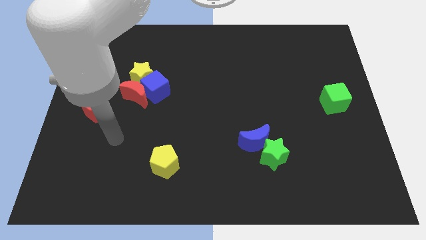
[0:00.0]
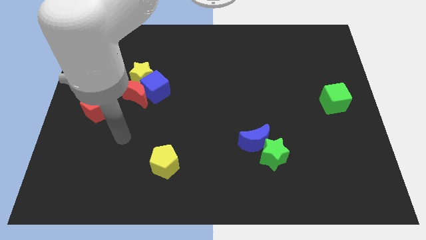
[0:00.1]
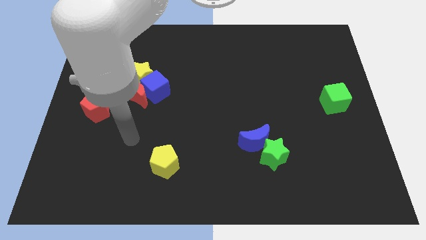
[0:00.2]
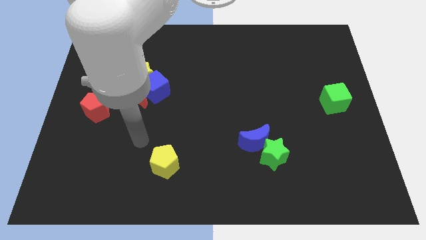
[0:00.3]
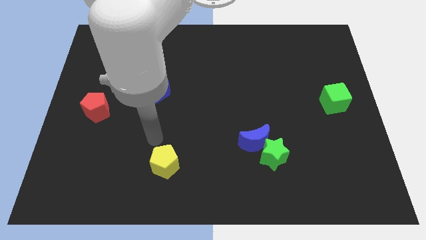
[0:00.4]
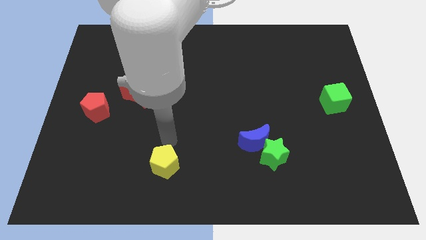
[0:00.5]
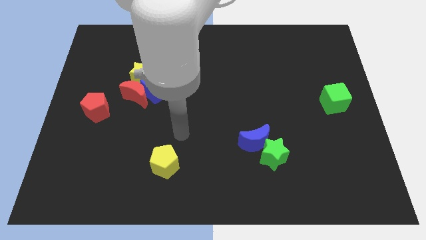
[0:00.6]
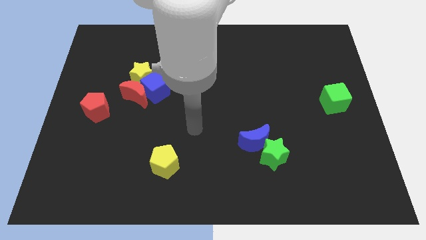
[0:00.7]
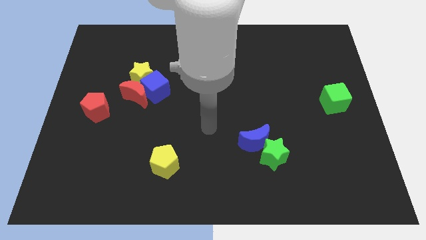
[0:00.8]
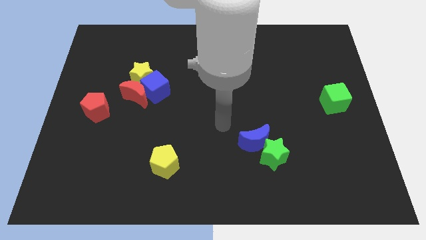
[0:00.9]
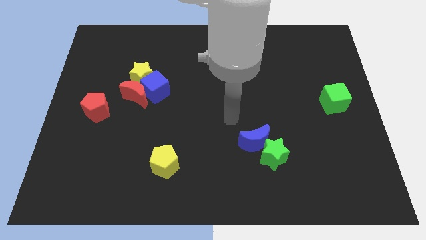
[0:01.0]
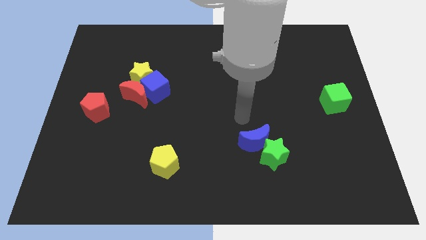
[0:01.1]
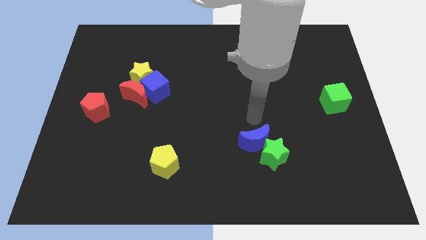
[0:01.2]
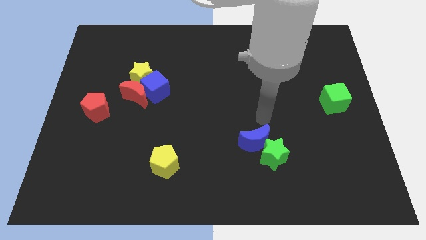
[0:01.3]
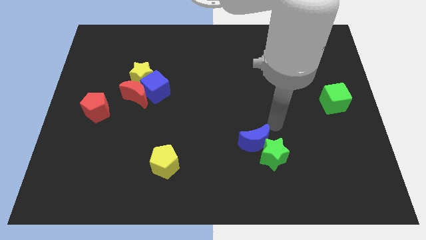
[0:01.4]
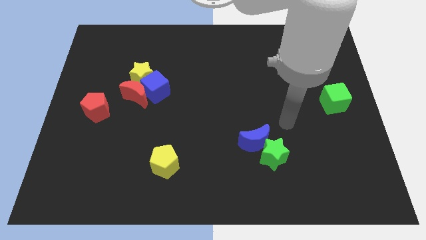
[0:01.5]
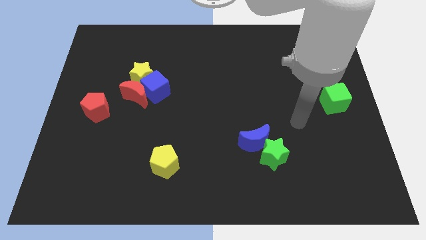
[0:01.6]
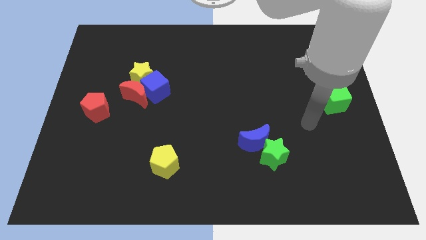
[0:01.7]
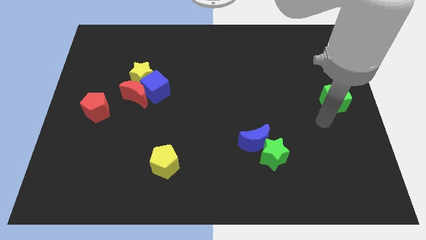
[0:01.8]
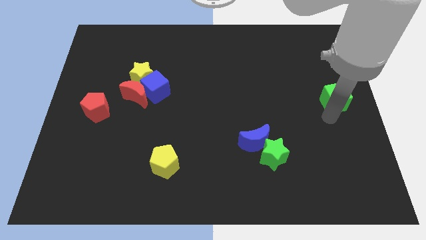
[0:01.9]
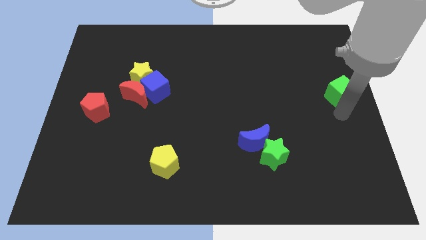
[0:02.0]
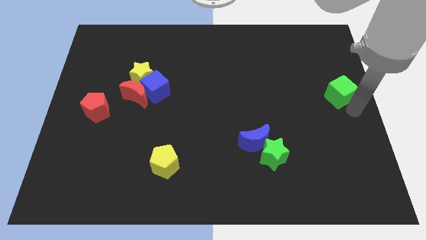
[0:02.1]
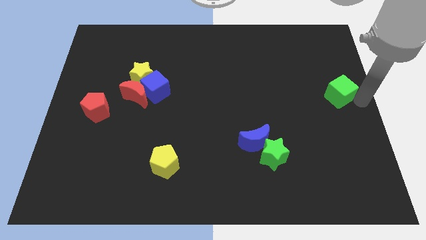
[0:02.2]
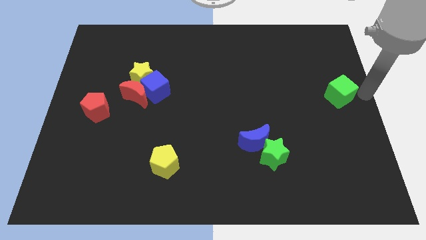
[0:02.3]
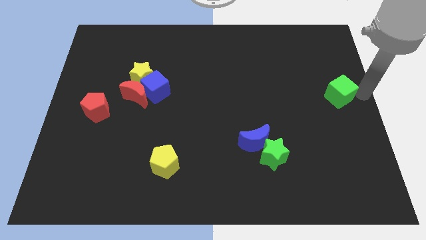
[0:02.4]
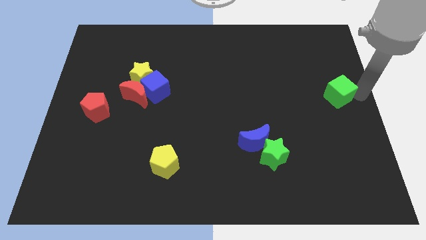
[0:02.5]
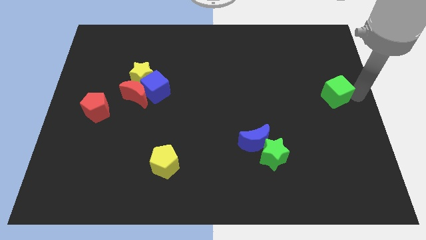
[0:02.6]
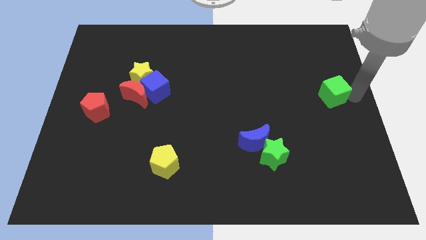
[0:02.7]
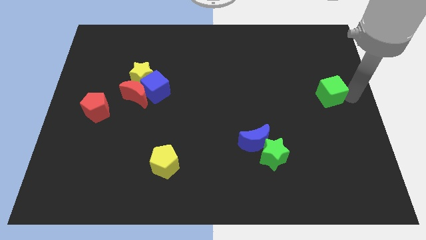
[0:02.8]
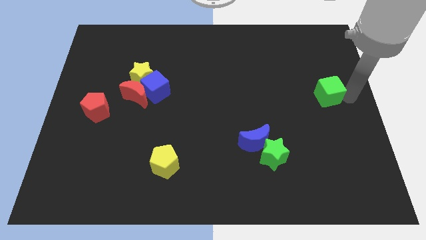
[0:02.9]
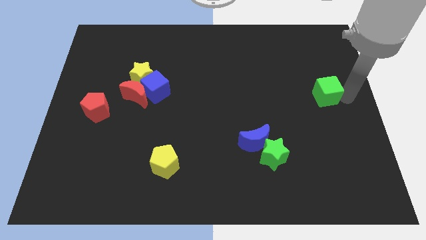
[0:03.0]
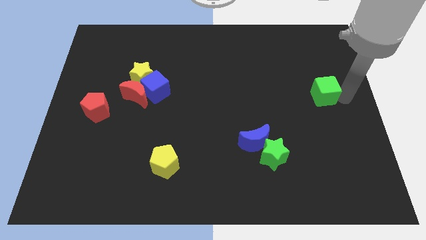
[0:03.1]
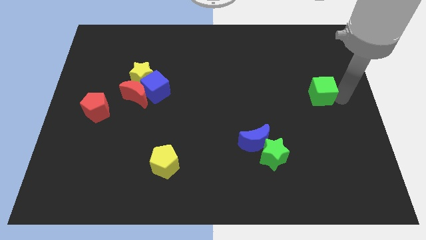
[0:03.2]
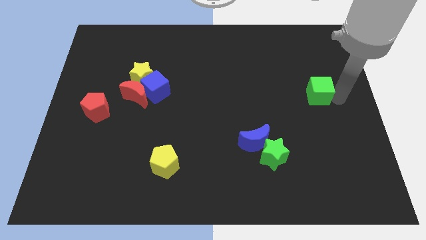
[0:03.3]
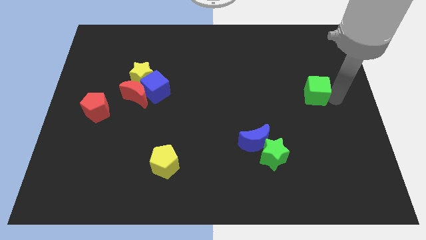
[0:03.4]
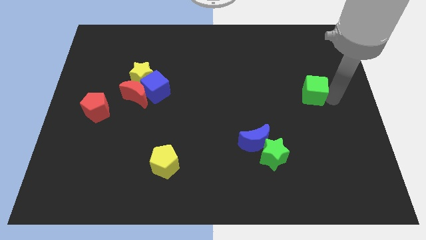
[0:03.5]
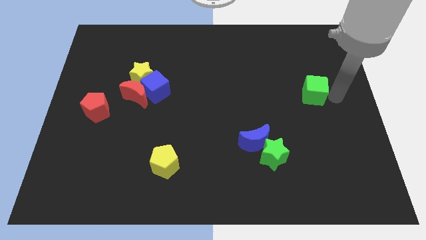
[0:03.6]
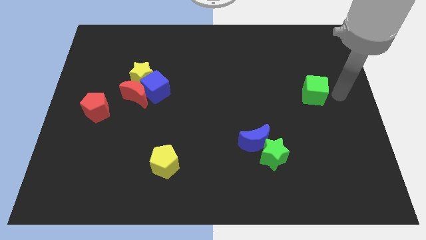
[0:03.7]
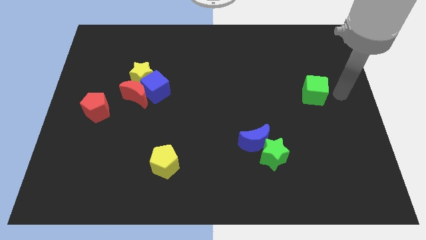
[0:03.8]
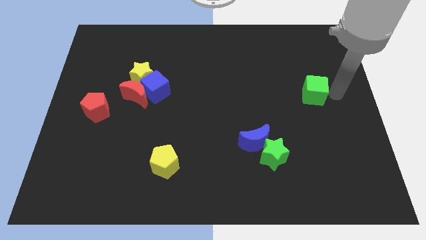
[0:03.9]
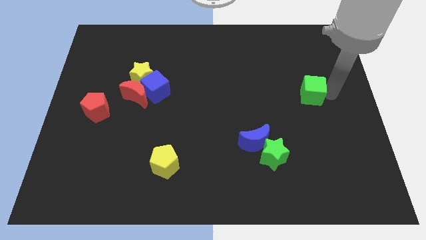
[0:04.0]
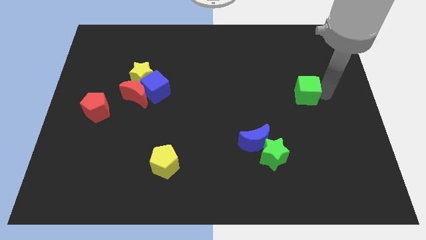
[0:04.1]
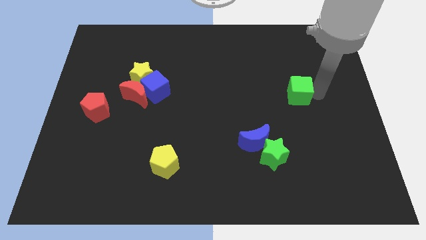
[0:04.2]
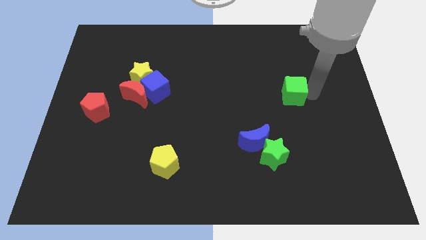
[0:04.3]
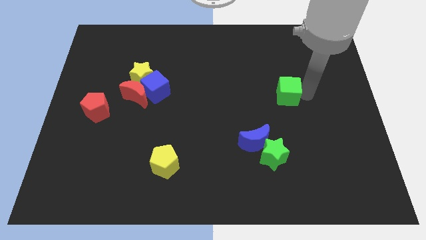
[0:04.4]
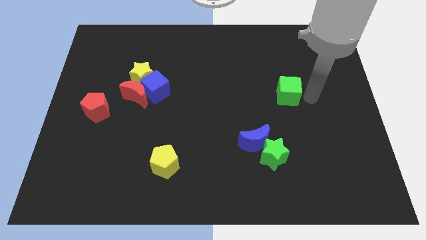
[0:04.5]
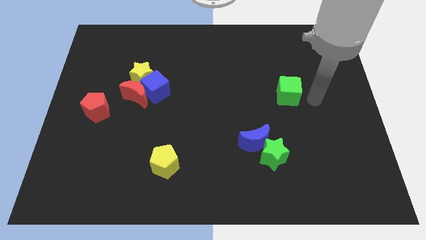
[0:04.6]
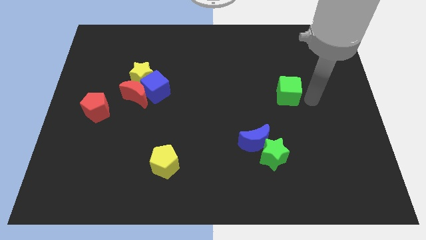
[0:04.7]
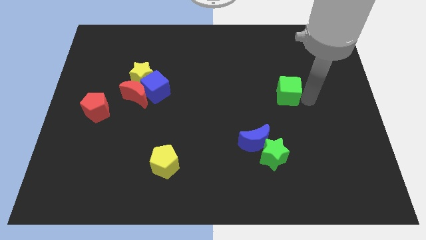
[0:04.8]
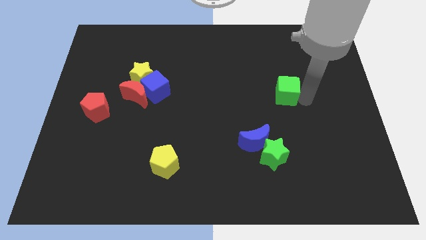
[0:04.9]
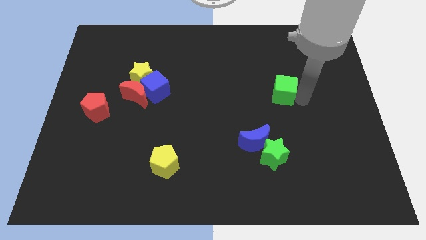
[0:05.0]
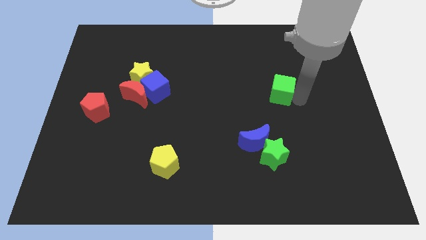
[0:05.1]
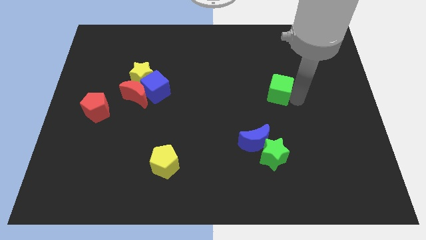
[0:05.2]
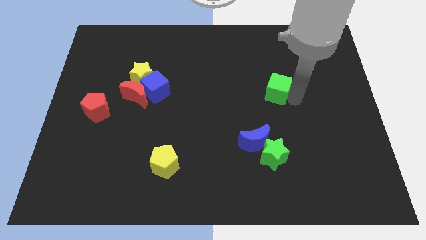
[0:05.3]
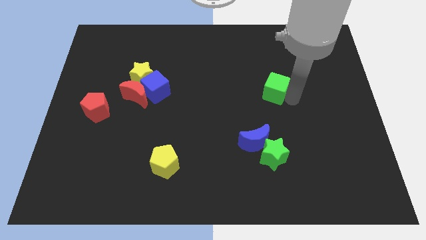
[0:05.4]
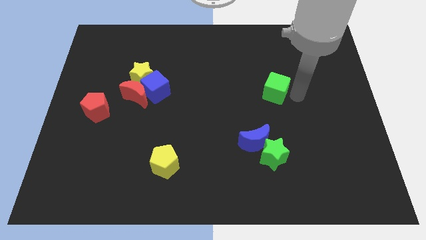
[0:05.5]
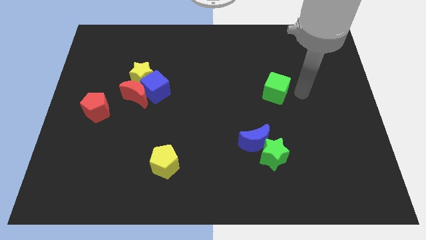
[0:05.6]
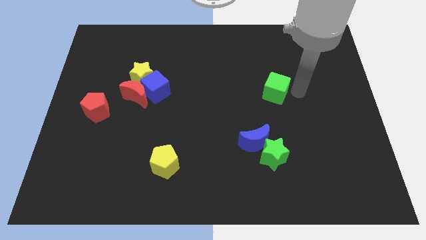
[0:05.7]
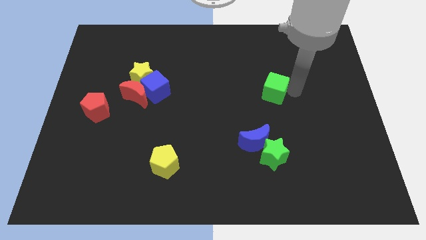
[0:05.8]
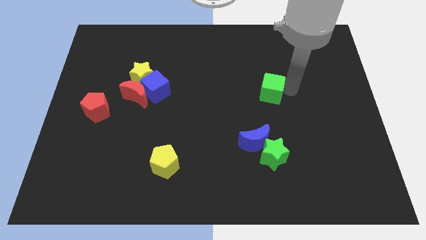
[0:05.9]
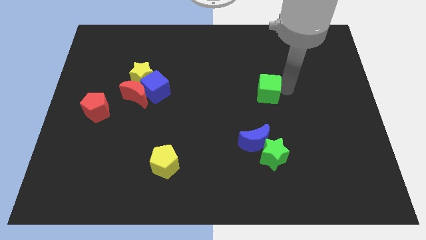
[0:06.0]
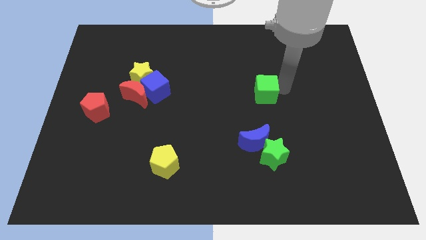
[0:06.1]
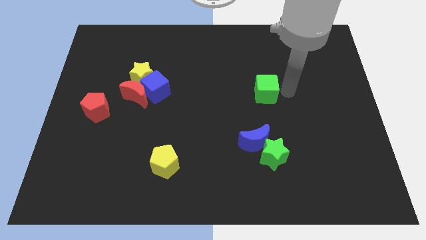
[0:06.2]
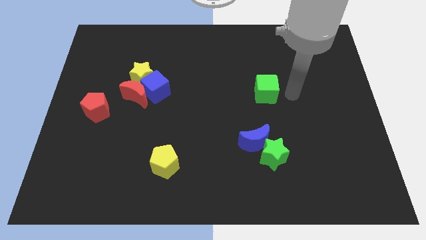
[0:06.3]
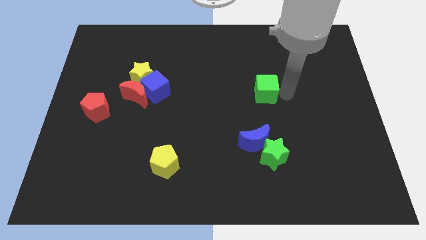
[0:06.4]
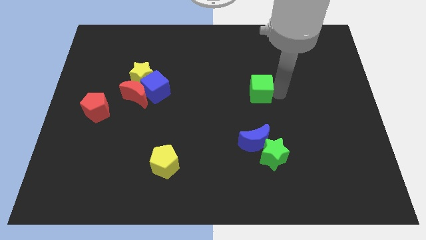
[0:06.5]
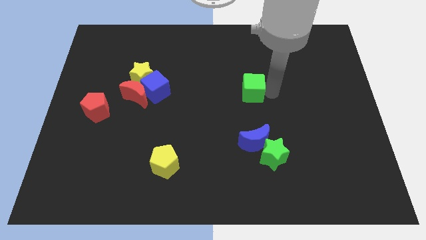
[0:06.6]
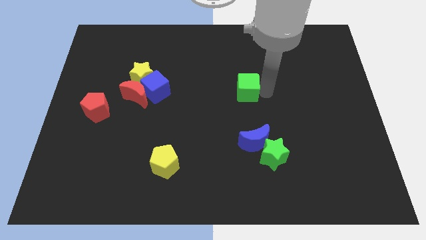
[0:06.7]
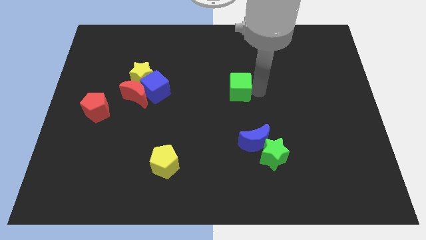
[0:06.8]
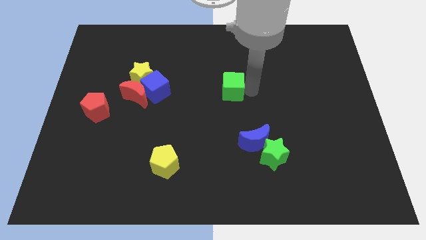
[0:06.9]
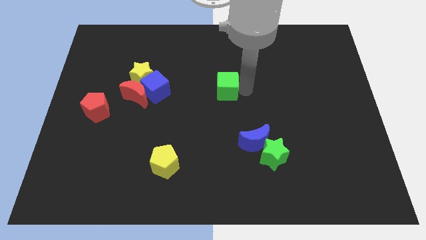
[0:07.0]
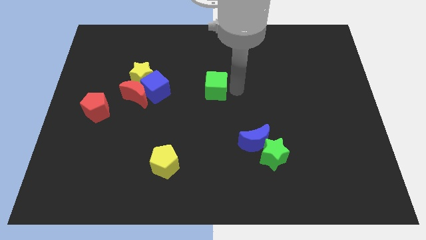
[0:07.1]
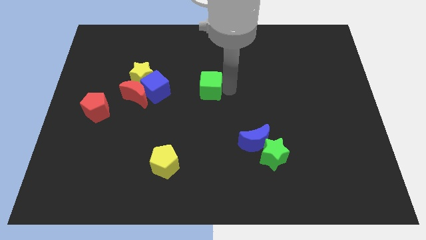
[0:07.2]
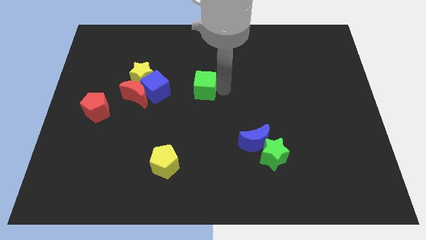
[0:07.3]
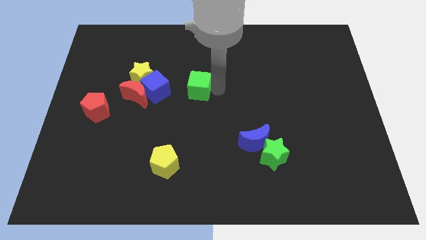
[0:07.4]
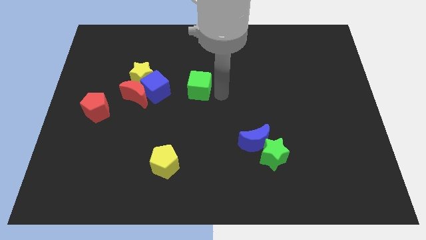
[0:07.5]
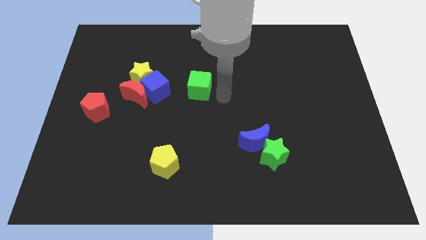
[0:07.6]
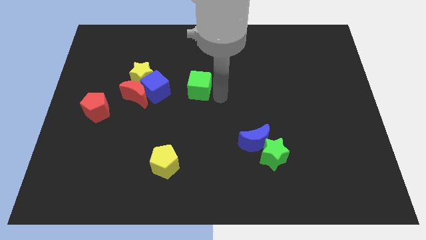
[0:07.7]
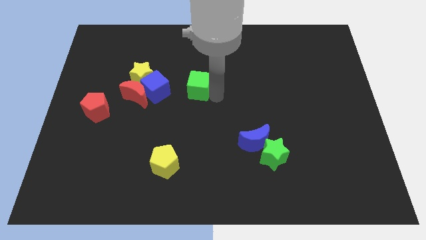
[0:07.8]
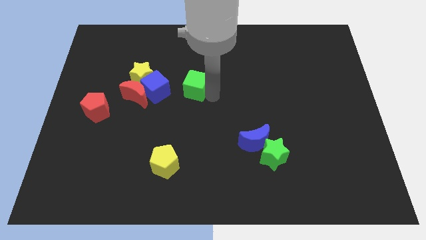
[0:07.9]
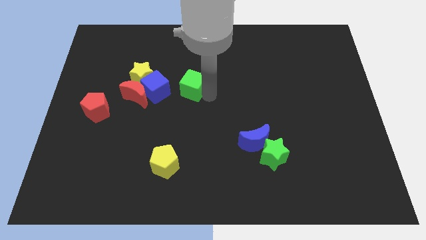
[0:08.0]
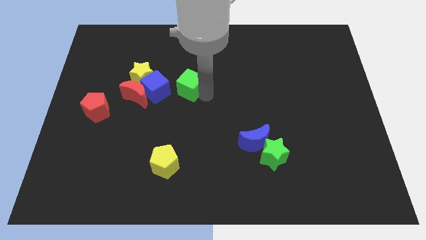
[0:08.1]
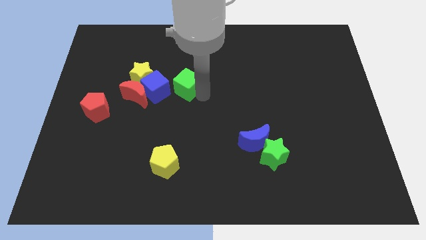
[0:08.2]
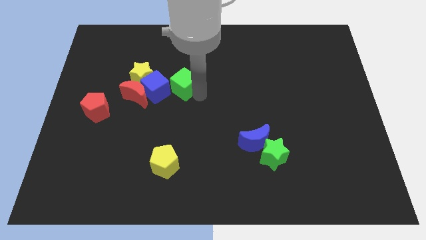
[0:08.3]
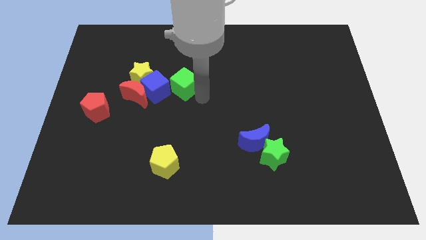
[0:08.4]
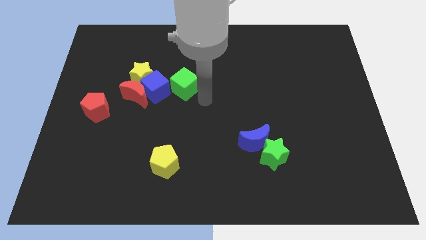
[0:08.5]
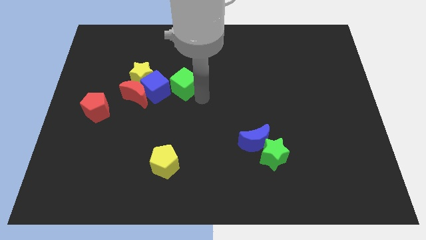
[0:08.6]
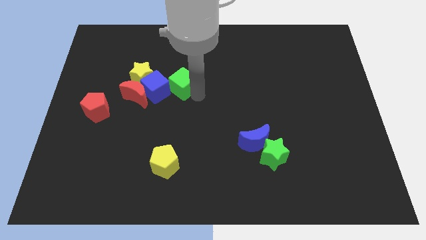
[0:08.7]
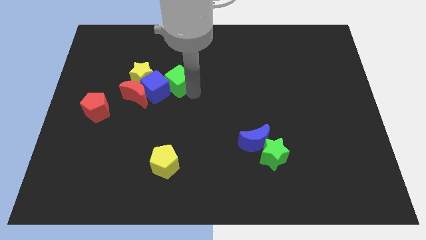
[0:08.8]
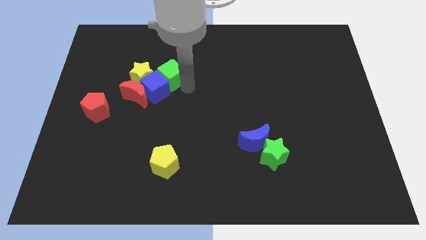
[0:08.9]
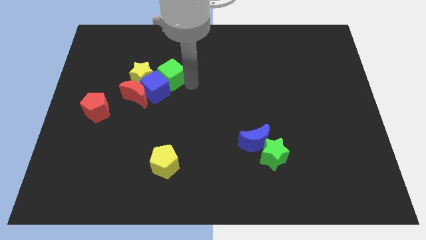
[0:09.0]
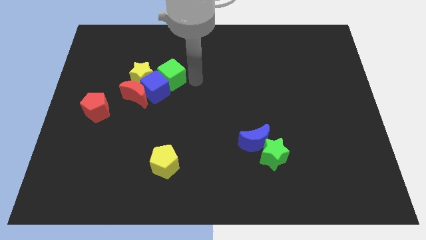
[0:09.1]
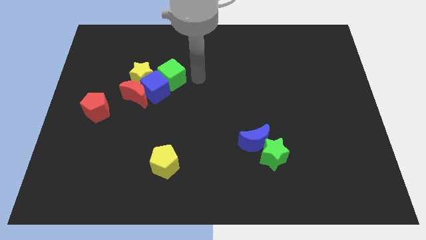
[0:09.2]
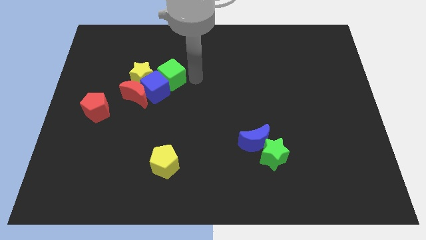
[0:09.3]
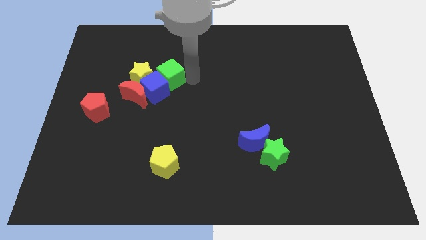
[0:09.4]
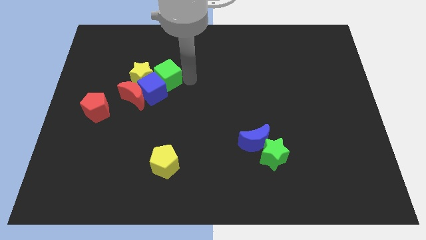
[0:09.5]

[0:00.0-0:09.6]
push the green cube towards the yellow star
